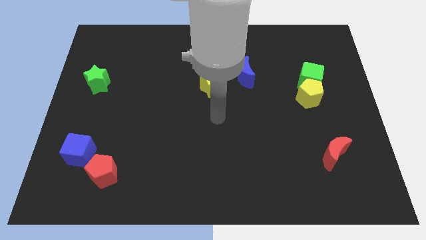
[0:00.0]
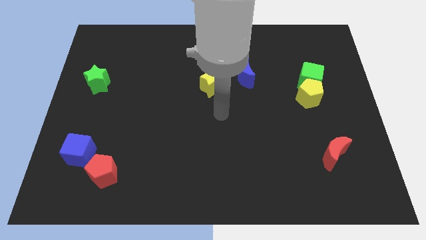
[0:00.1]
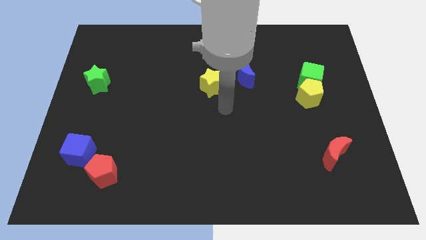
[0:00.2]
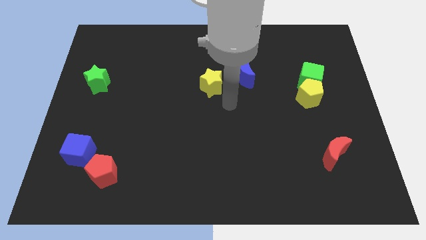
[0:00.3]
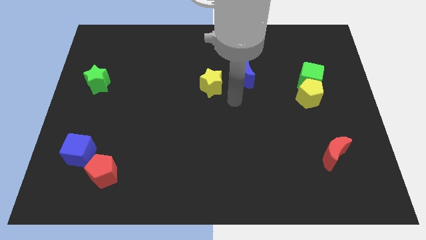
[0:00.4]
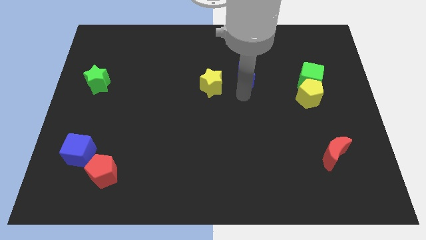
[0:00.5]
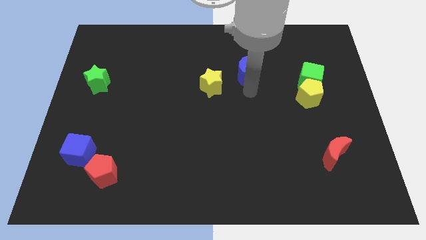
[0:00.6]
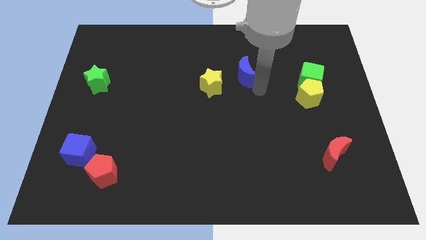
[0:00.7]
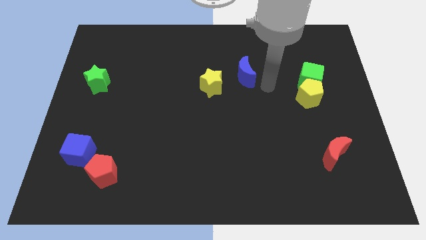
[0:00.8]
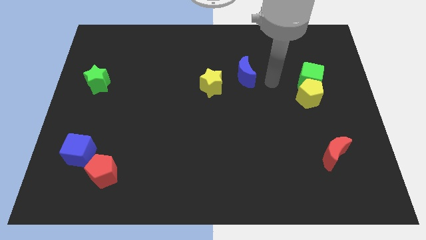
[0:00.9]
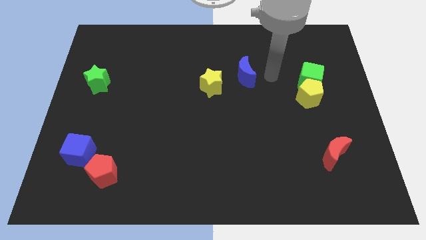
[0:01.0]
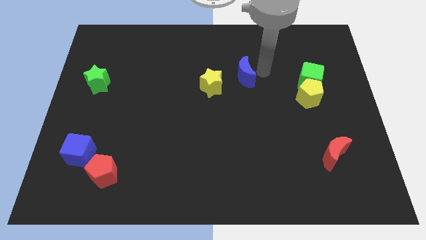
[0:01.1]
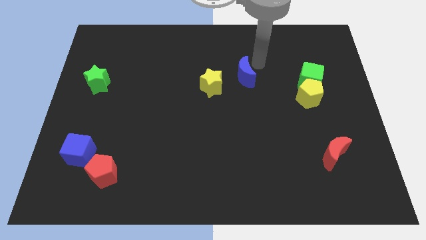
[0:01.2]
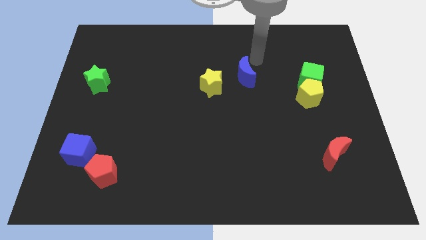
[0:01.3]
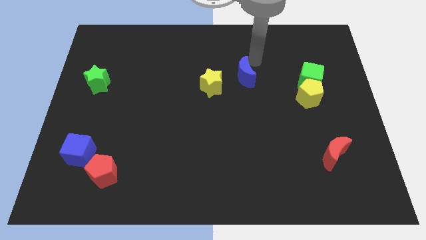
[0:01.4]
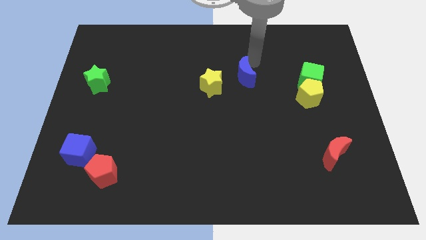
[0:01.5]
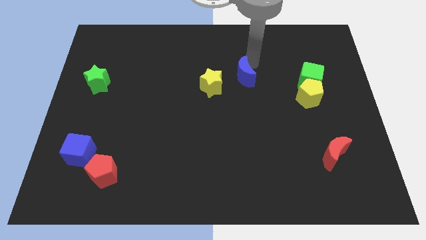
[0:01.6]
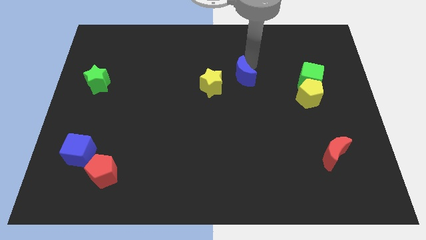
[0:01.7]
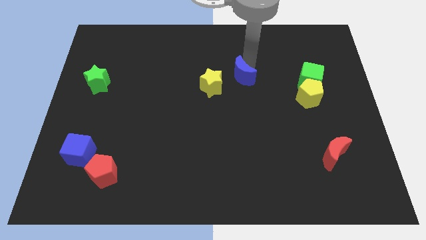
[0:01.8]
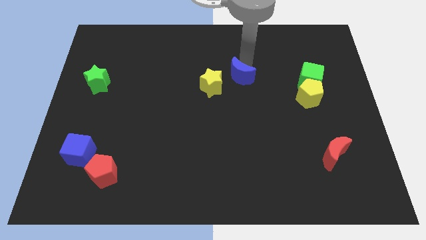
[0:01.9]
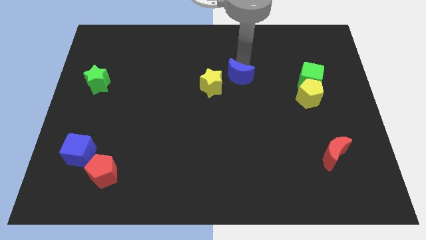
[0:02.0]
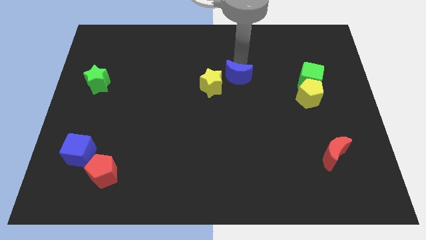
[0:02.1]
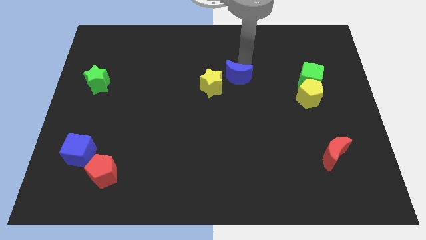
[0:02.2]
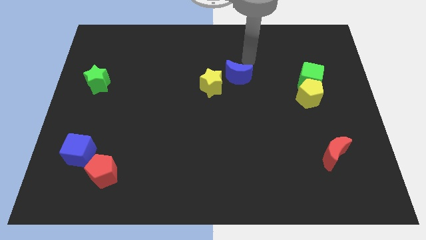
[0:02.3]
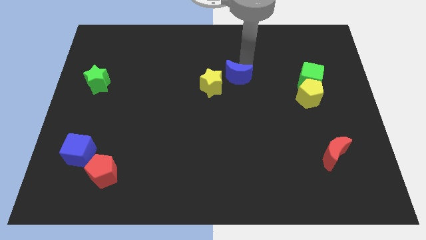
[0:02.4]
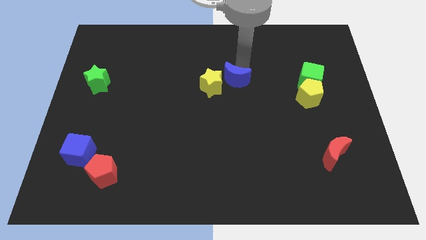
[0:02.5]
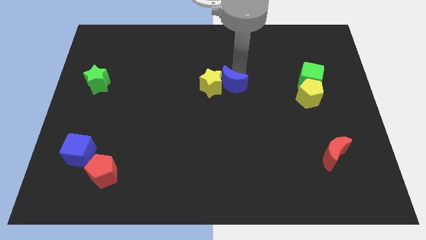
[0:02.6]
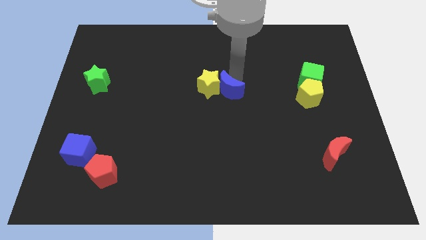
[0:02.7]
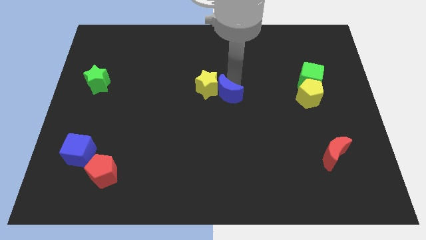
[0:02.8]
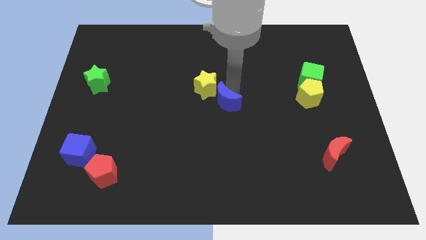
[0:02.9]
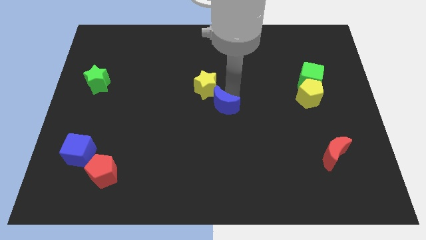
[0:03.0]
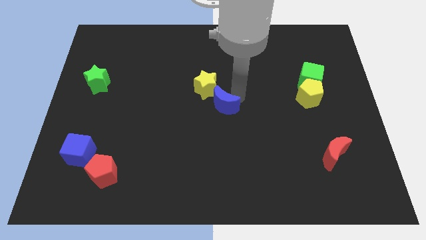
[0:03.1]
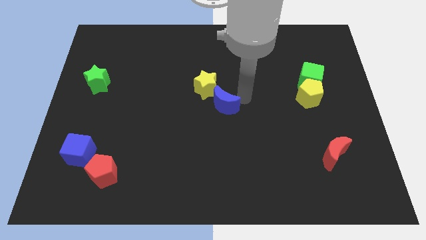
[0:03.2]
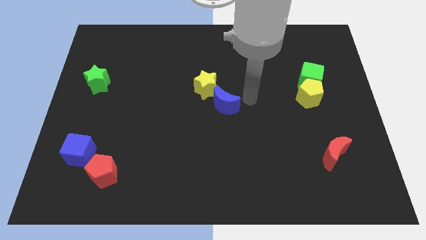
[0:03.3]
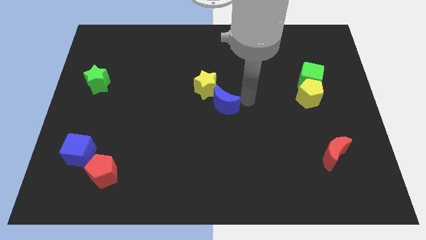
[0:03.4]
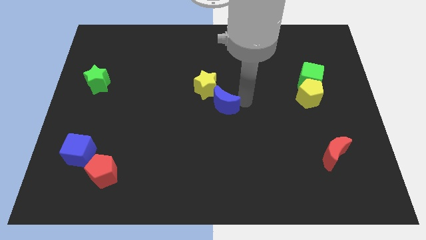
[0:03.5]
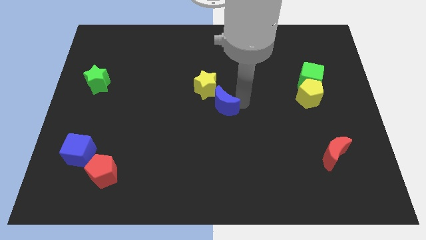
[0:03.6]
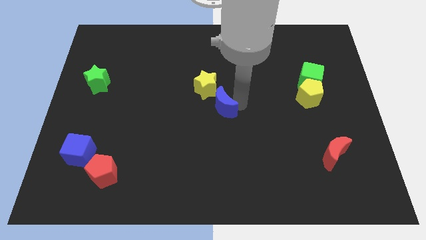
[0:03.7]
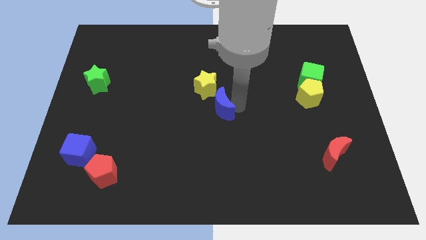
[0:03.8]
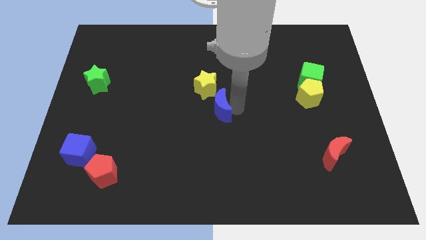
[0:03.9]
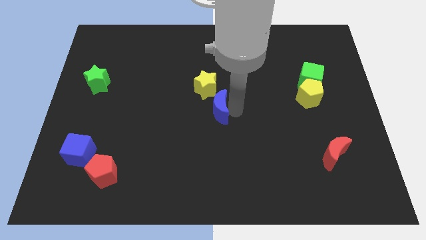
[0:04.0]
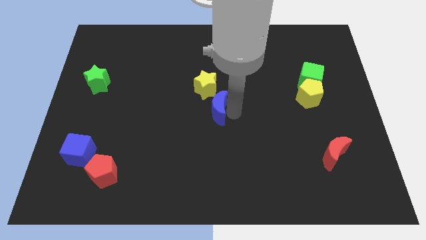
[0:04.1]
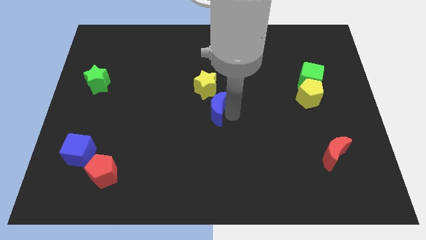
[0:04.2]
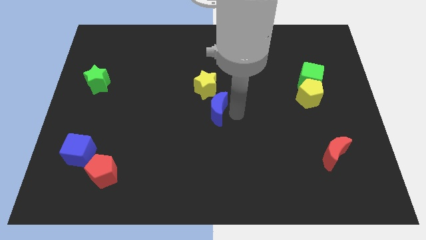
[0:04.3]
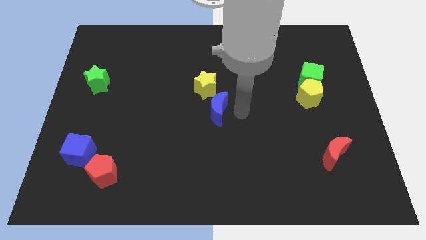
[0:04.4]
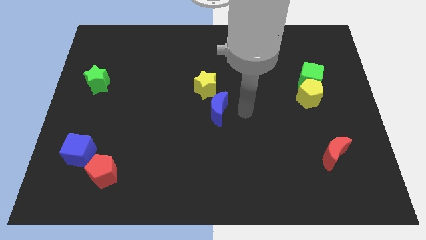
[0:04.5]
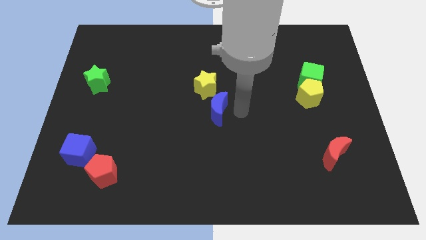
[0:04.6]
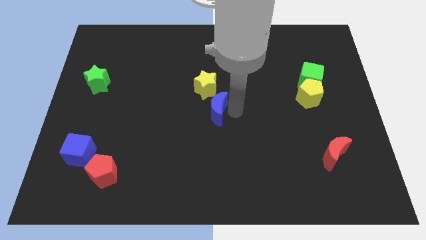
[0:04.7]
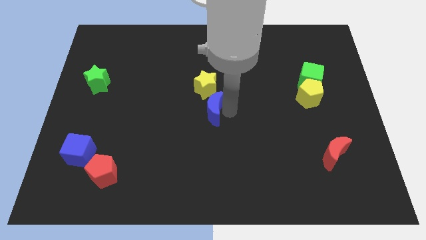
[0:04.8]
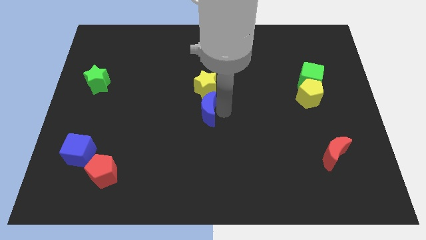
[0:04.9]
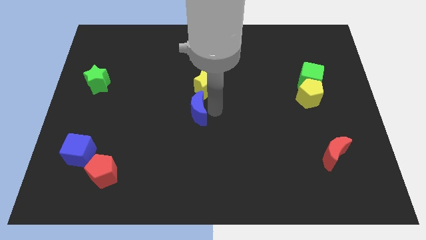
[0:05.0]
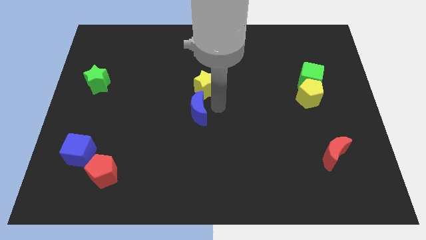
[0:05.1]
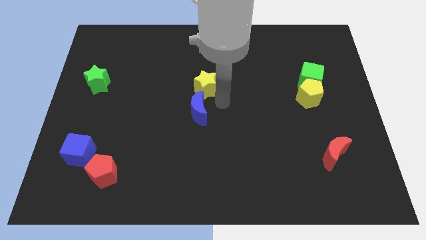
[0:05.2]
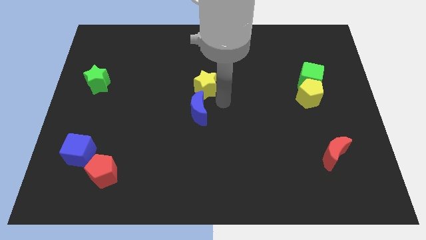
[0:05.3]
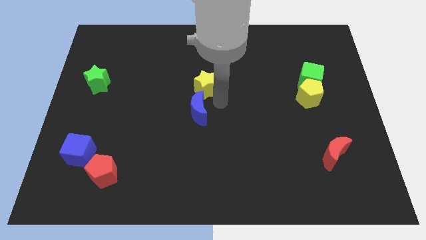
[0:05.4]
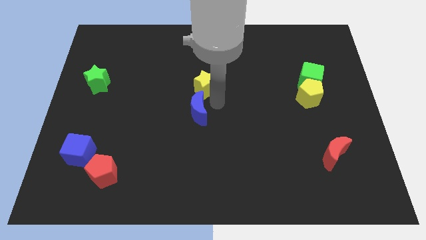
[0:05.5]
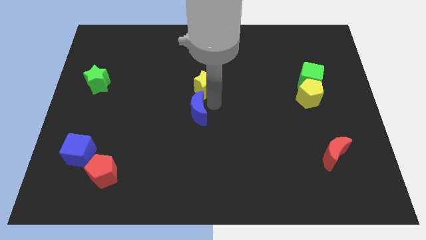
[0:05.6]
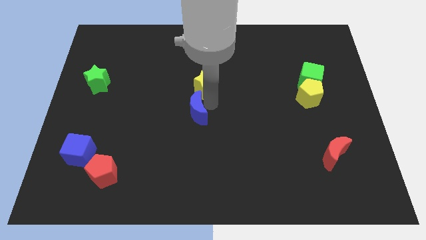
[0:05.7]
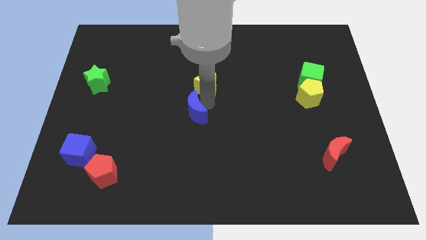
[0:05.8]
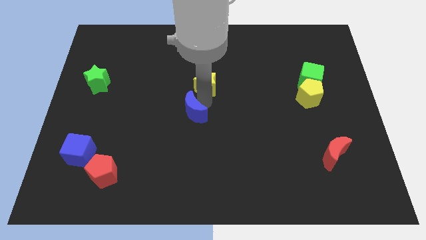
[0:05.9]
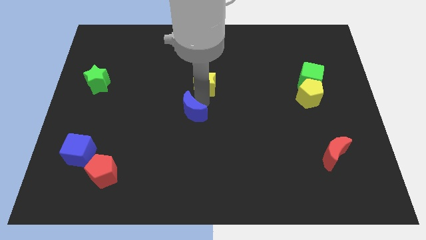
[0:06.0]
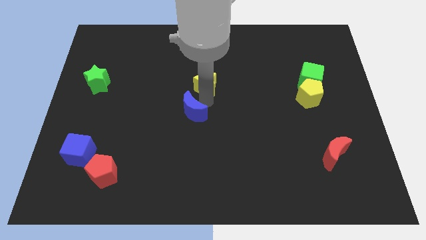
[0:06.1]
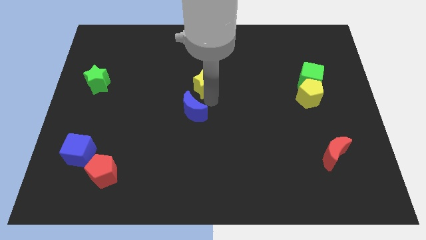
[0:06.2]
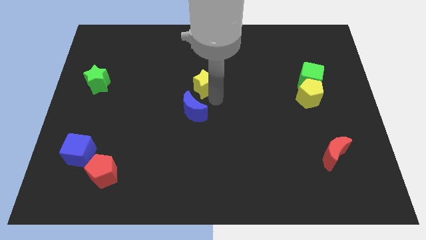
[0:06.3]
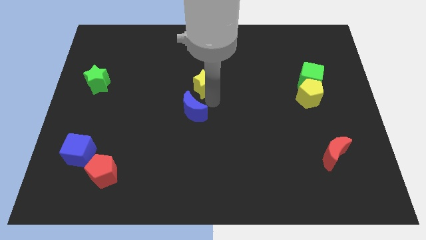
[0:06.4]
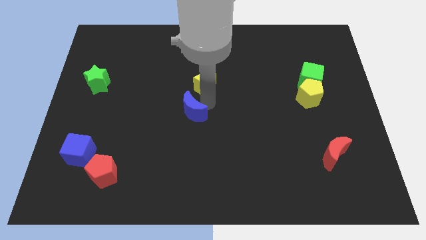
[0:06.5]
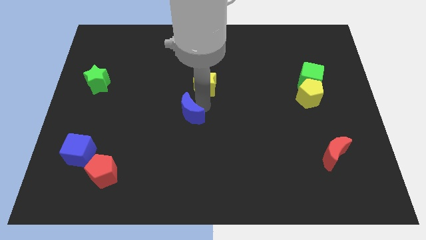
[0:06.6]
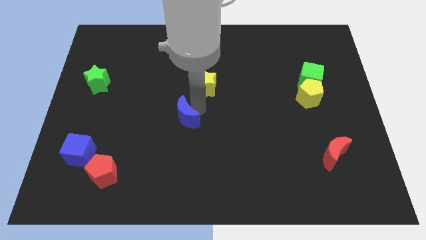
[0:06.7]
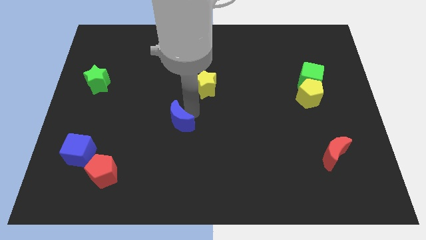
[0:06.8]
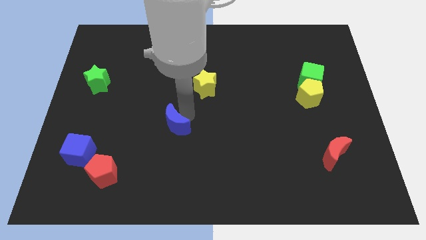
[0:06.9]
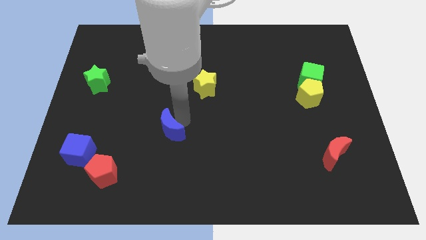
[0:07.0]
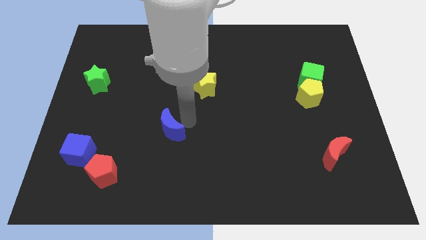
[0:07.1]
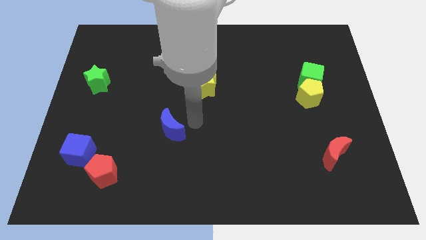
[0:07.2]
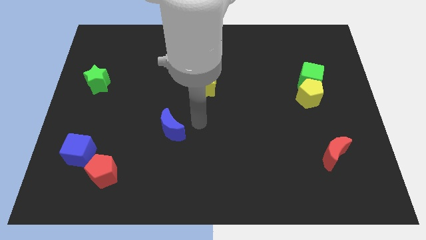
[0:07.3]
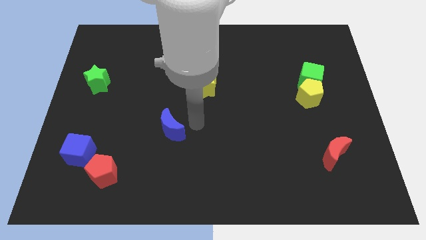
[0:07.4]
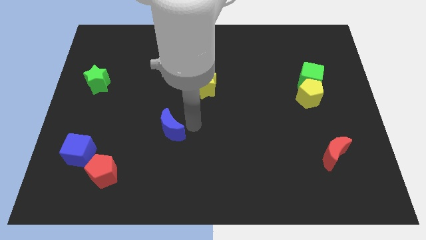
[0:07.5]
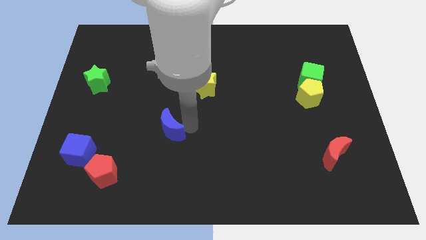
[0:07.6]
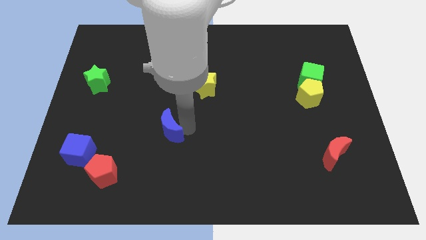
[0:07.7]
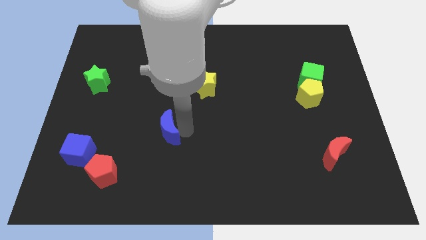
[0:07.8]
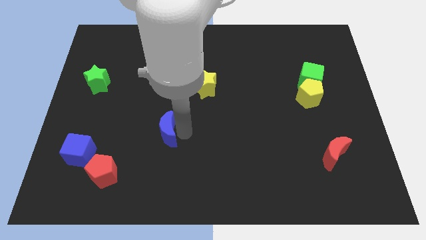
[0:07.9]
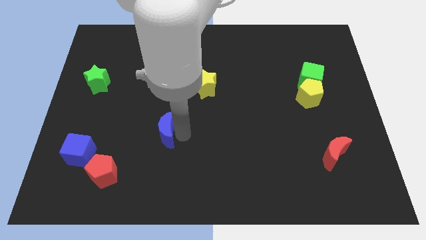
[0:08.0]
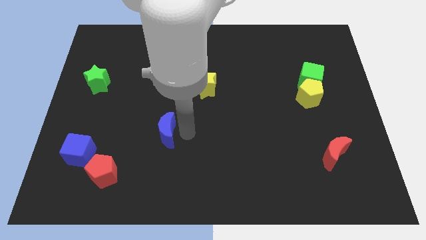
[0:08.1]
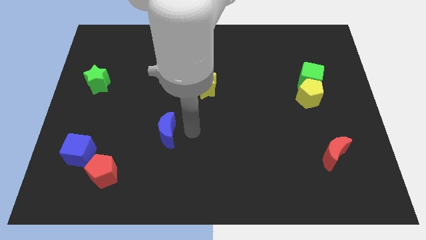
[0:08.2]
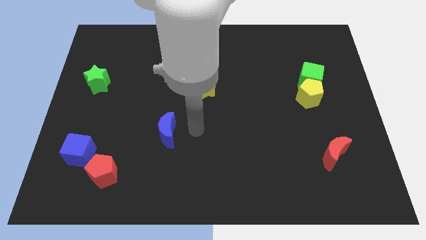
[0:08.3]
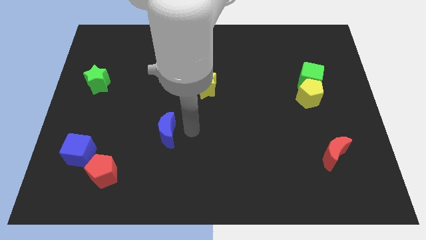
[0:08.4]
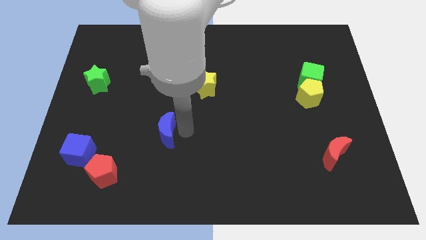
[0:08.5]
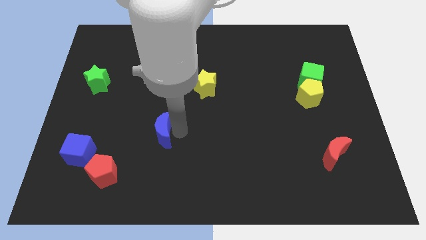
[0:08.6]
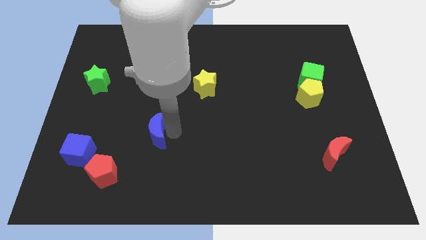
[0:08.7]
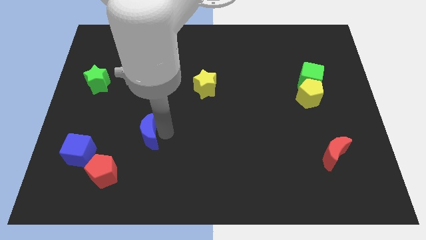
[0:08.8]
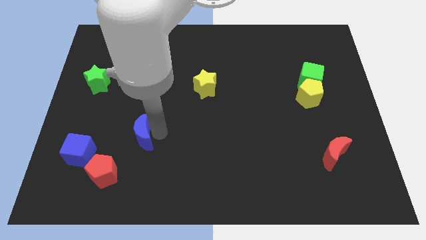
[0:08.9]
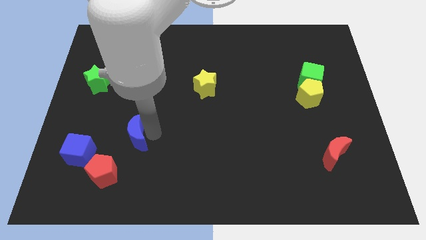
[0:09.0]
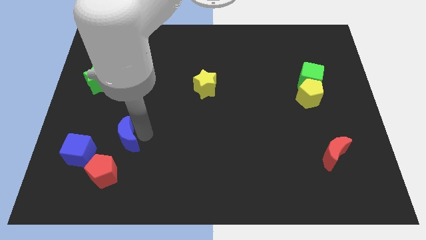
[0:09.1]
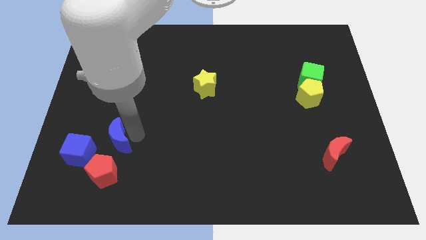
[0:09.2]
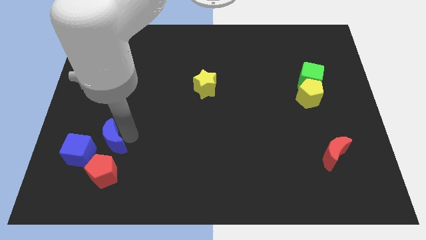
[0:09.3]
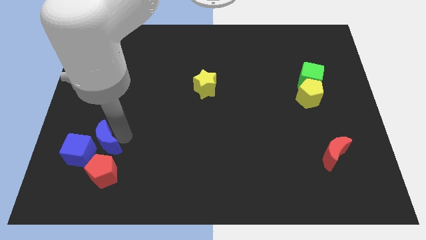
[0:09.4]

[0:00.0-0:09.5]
slide the blue moon to the blue cube
